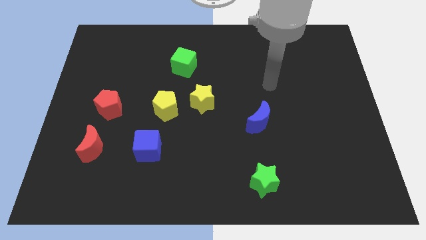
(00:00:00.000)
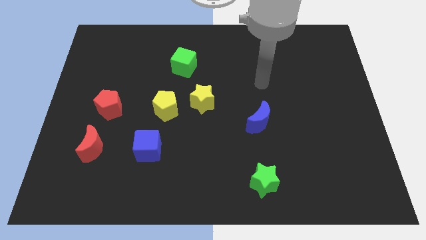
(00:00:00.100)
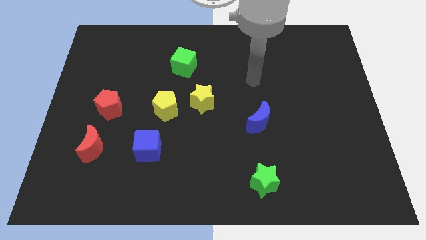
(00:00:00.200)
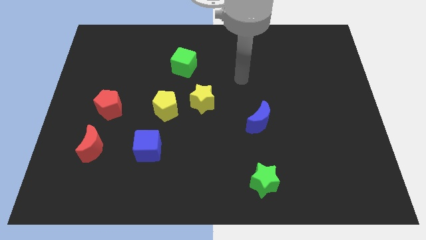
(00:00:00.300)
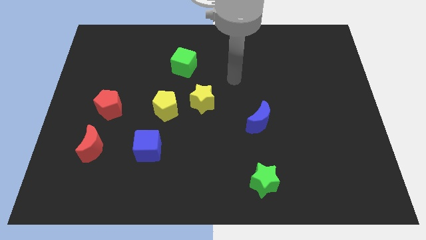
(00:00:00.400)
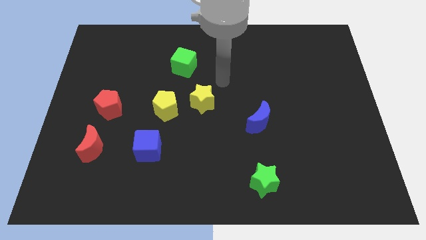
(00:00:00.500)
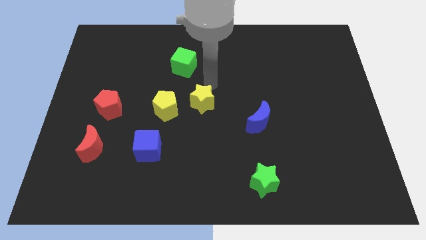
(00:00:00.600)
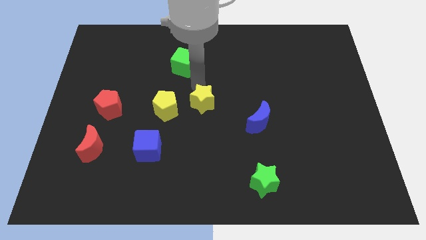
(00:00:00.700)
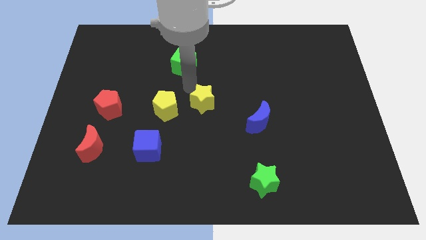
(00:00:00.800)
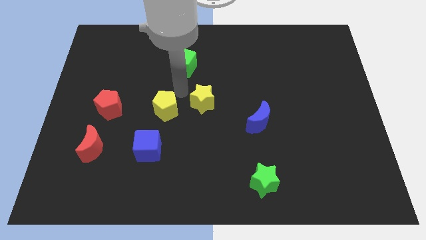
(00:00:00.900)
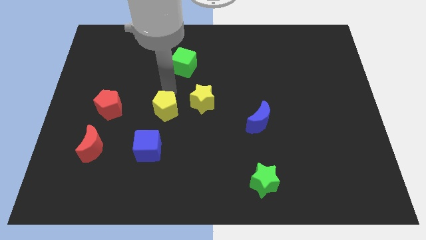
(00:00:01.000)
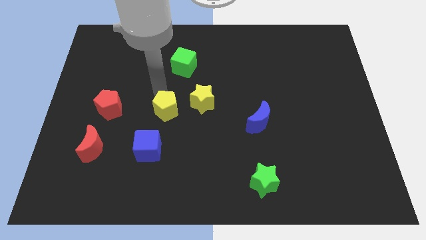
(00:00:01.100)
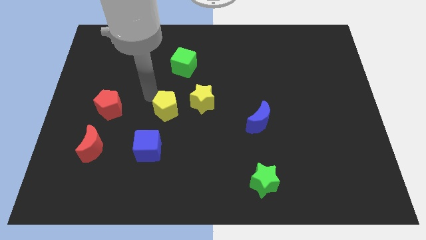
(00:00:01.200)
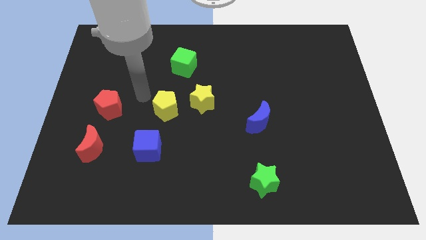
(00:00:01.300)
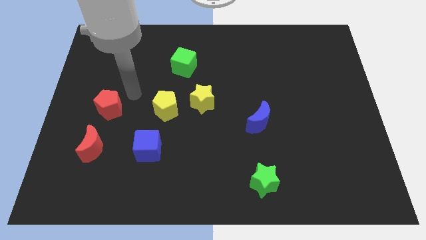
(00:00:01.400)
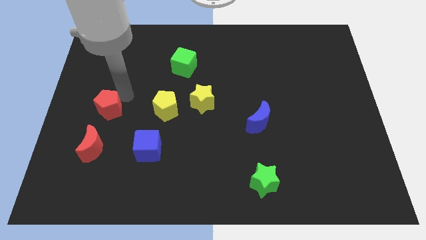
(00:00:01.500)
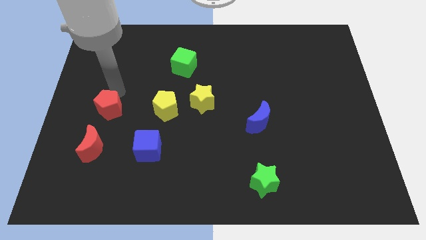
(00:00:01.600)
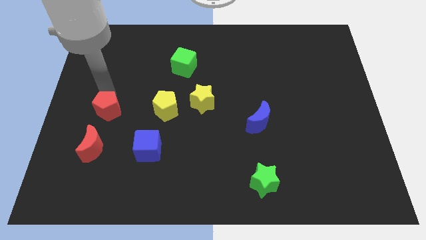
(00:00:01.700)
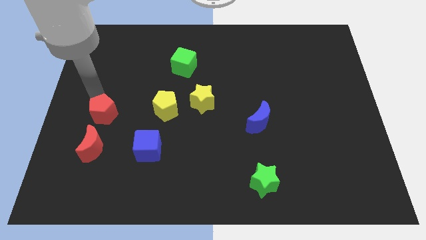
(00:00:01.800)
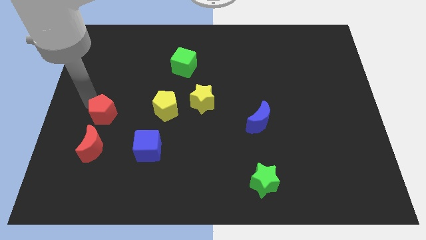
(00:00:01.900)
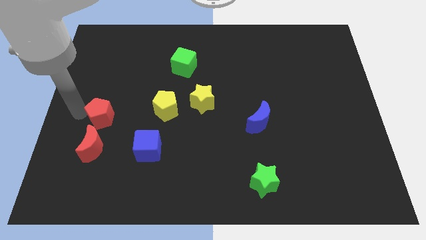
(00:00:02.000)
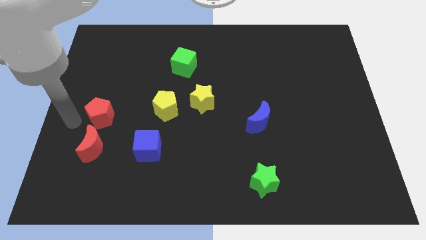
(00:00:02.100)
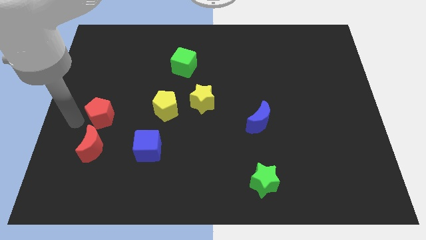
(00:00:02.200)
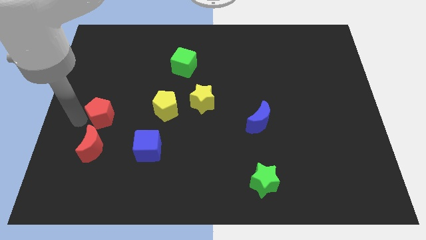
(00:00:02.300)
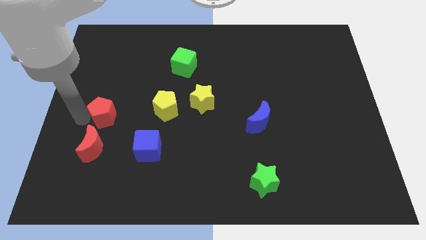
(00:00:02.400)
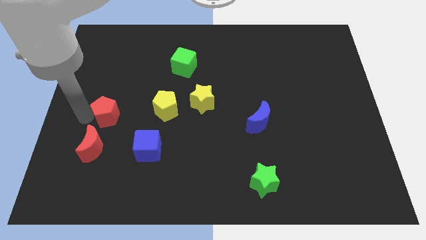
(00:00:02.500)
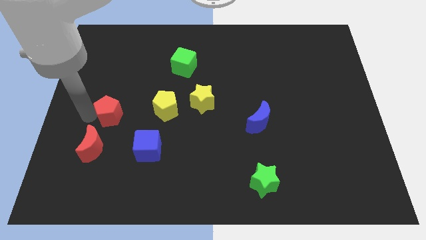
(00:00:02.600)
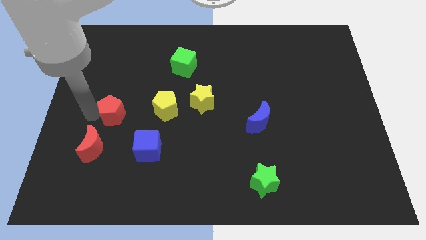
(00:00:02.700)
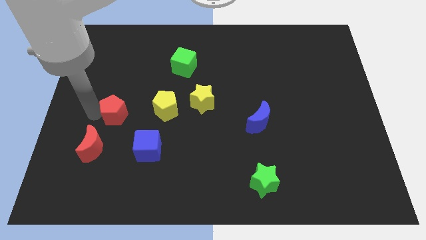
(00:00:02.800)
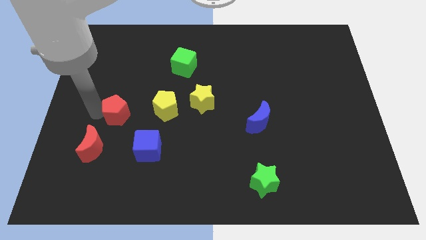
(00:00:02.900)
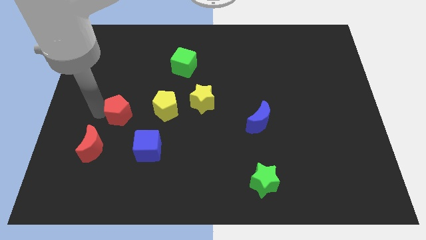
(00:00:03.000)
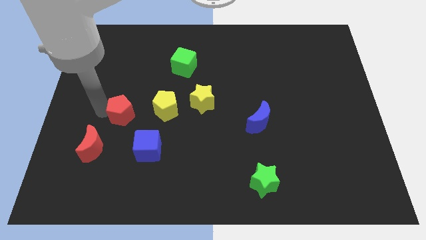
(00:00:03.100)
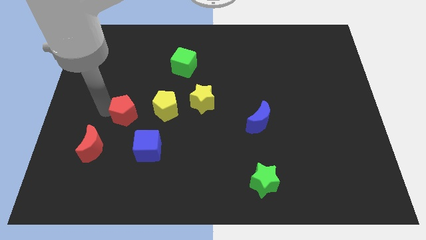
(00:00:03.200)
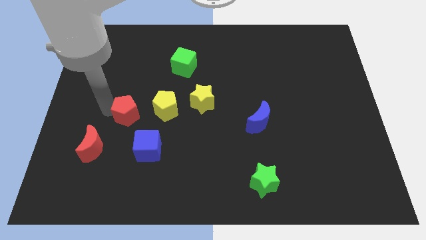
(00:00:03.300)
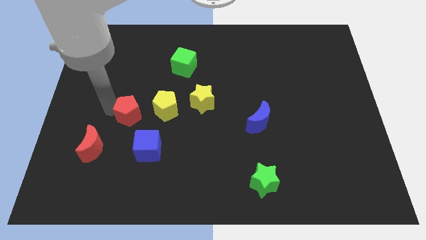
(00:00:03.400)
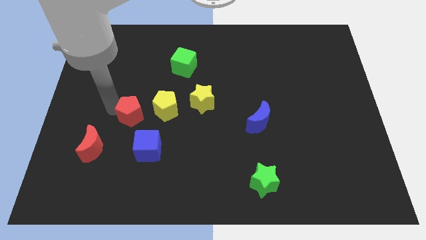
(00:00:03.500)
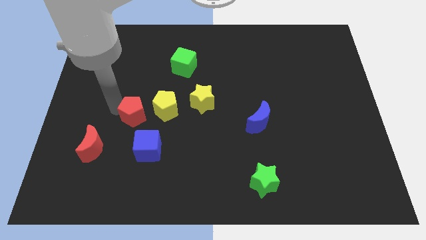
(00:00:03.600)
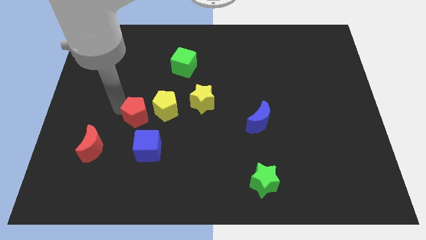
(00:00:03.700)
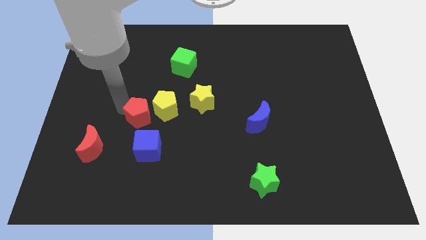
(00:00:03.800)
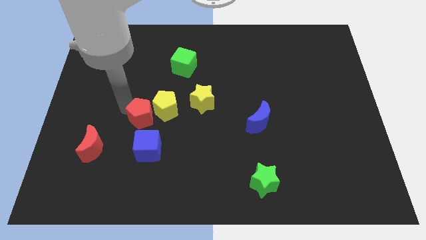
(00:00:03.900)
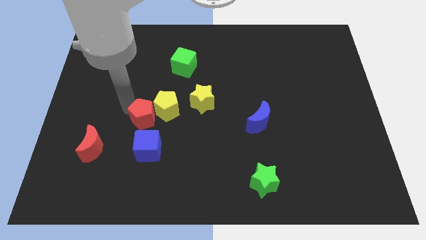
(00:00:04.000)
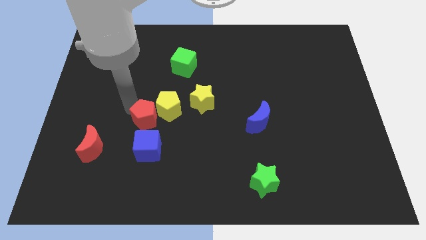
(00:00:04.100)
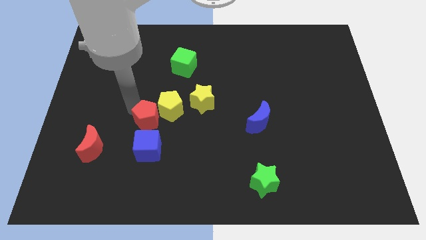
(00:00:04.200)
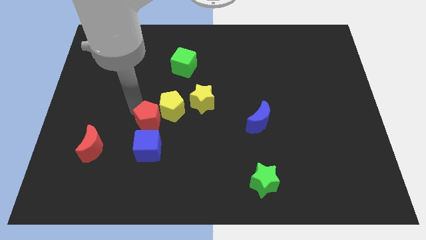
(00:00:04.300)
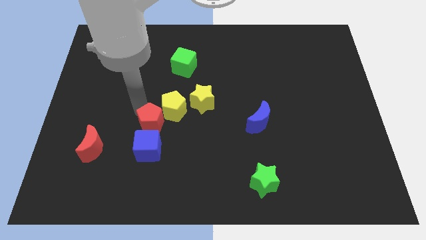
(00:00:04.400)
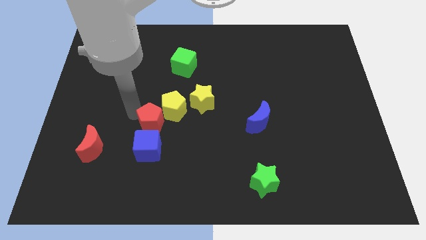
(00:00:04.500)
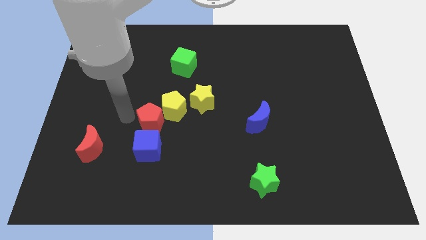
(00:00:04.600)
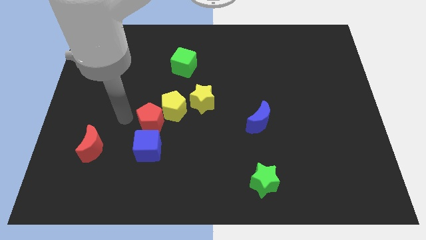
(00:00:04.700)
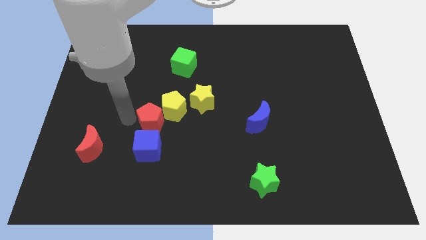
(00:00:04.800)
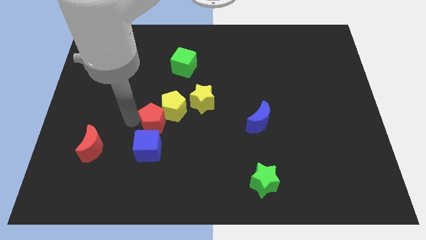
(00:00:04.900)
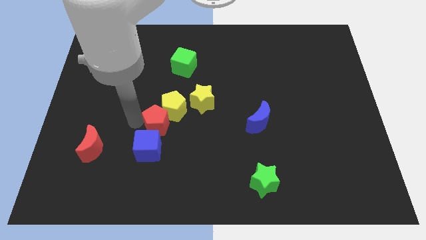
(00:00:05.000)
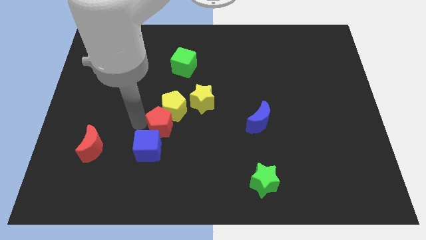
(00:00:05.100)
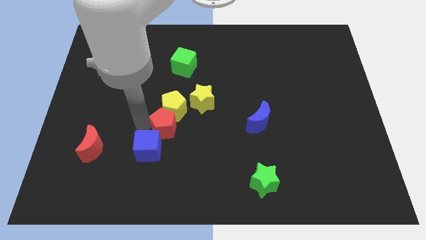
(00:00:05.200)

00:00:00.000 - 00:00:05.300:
put the red pentagon to the bottom right side of the yellow pentagon

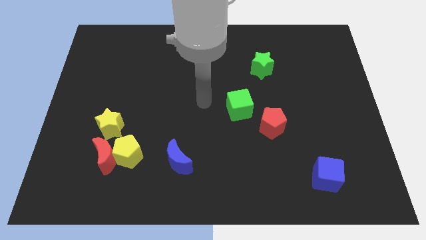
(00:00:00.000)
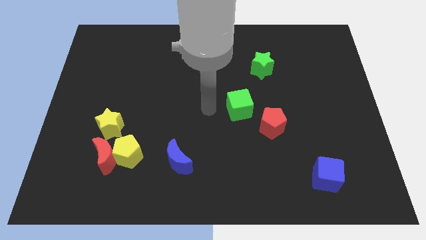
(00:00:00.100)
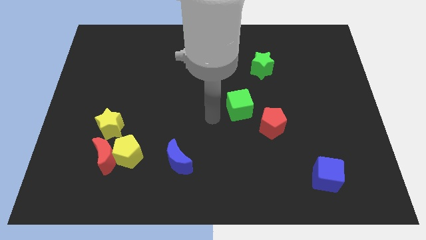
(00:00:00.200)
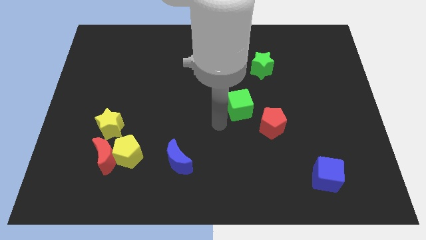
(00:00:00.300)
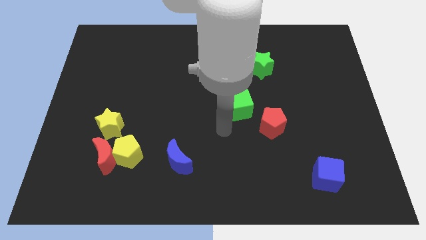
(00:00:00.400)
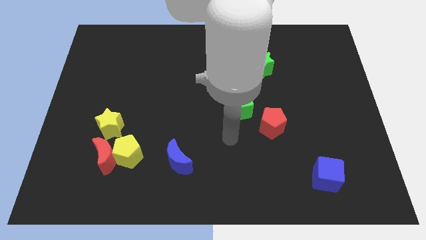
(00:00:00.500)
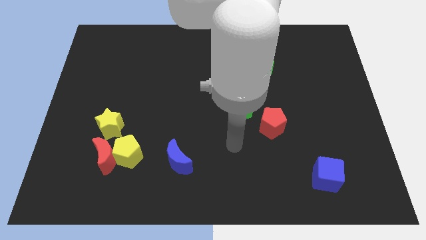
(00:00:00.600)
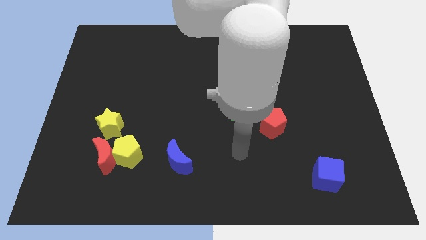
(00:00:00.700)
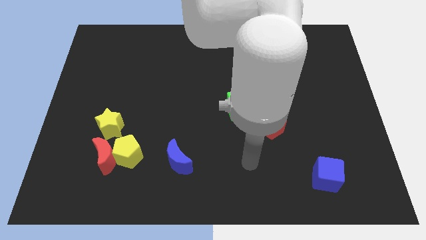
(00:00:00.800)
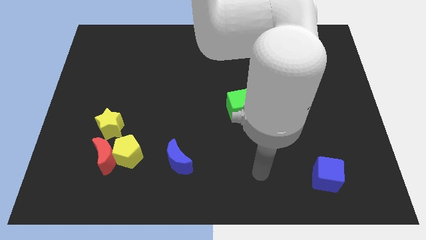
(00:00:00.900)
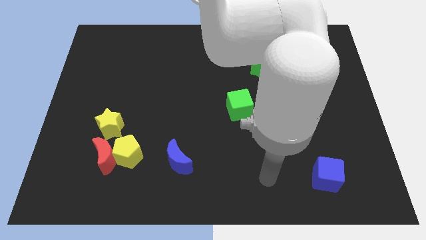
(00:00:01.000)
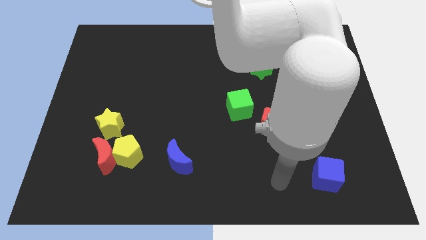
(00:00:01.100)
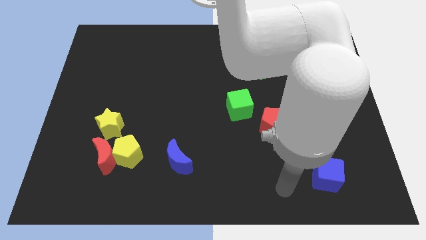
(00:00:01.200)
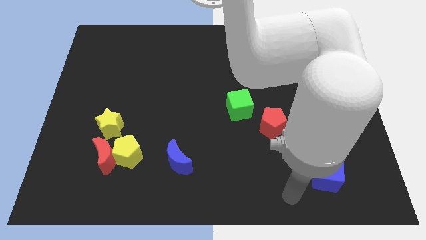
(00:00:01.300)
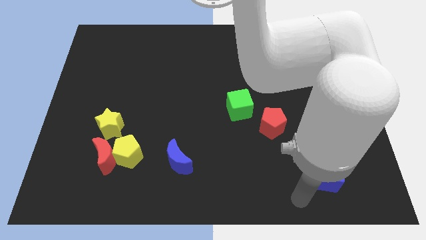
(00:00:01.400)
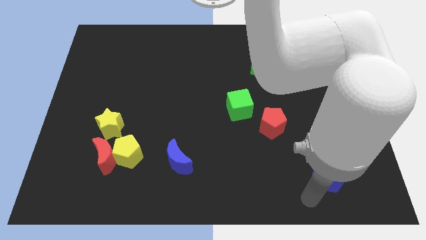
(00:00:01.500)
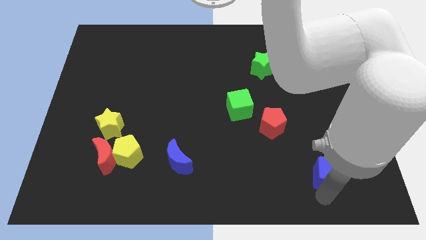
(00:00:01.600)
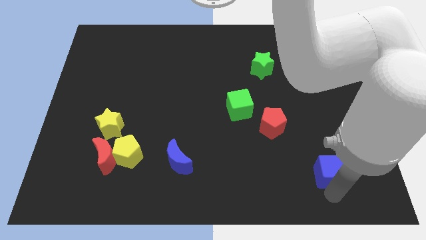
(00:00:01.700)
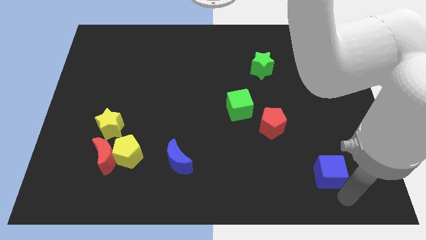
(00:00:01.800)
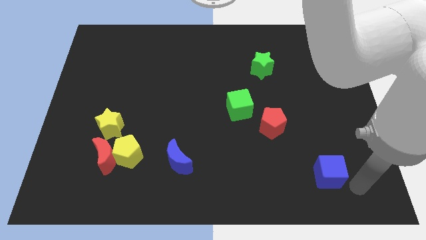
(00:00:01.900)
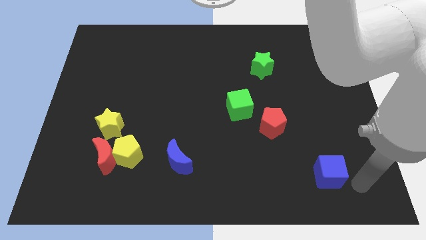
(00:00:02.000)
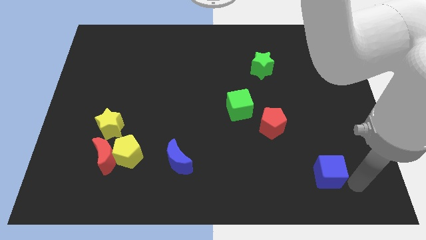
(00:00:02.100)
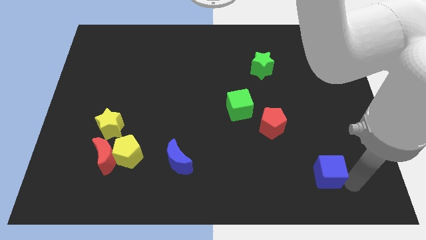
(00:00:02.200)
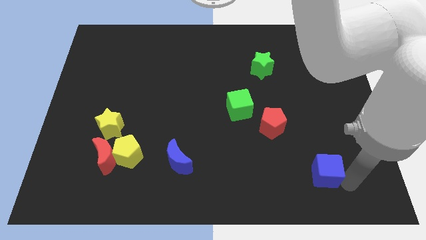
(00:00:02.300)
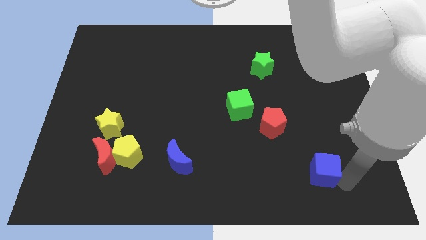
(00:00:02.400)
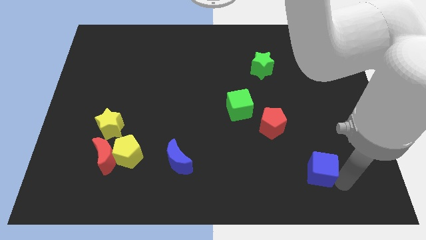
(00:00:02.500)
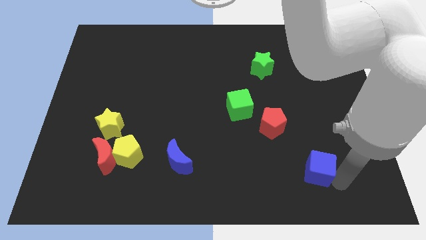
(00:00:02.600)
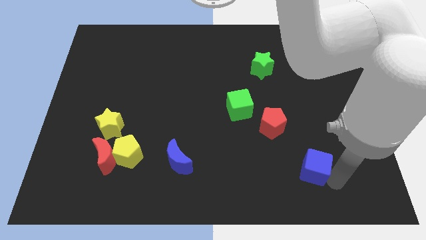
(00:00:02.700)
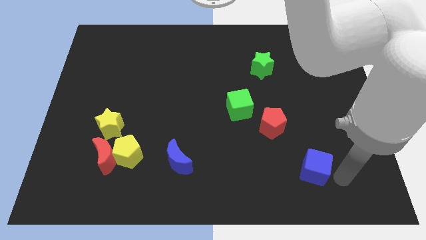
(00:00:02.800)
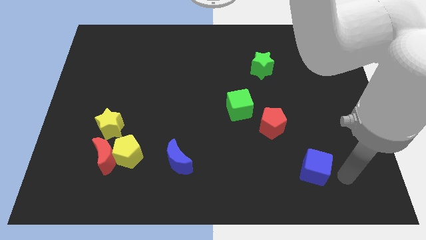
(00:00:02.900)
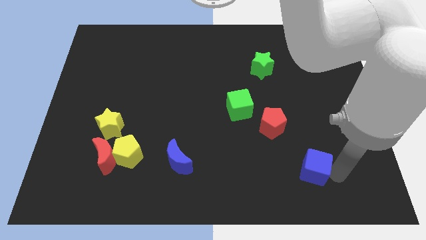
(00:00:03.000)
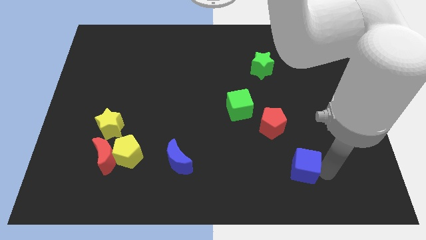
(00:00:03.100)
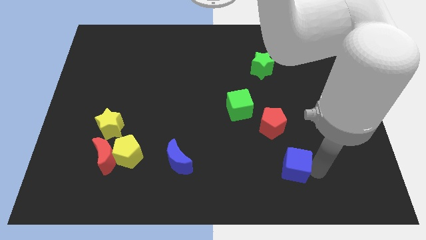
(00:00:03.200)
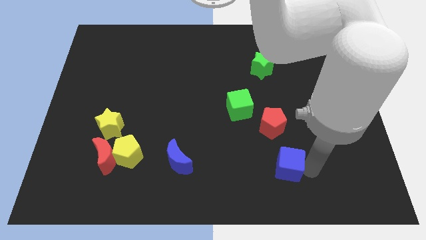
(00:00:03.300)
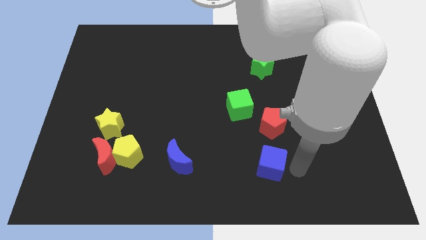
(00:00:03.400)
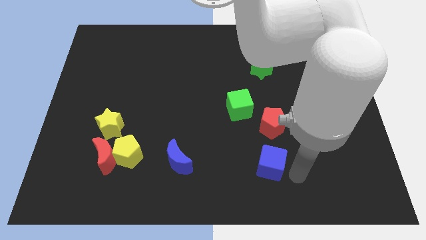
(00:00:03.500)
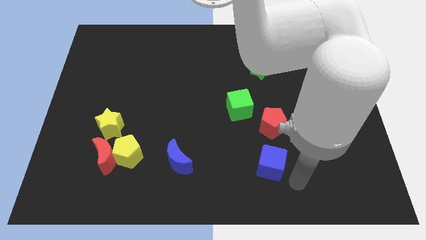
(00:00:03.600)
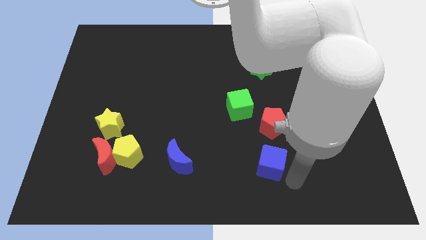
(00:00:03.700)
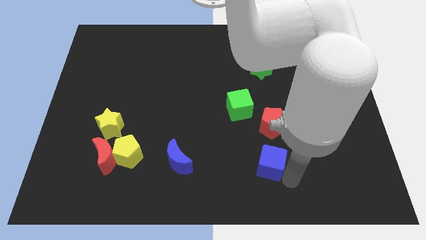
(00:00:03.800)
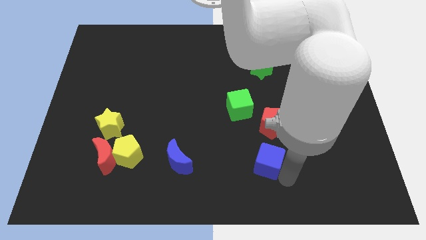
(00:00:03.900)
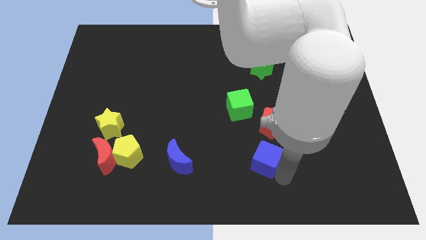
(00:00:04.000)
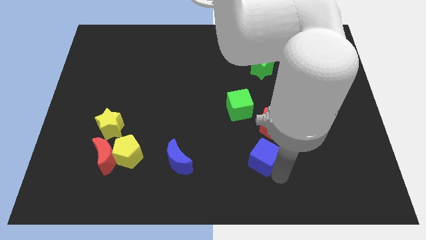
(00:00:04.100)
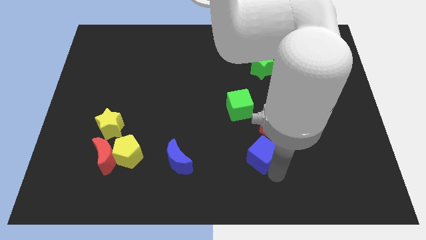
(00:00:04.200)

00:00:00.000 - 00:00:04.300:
slide the blue cube to the bottom side of the green cube
